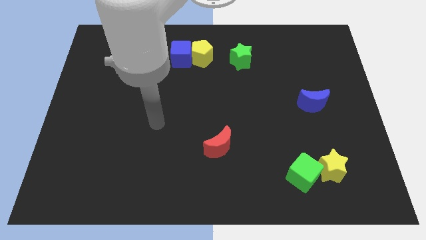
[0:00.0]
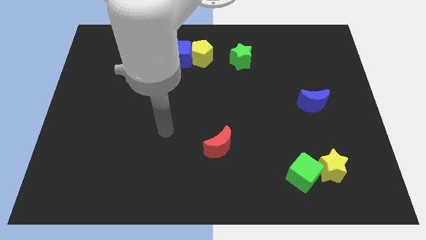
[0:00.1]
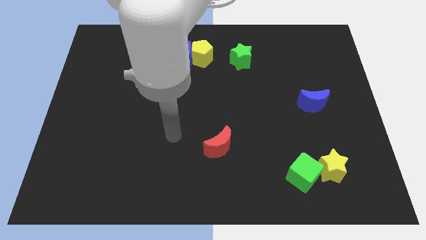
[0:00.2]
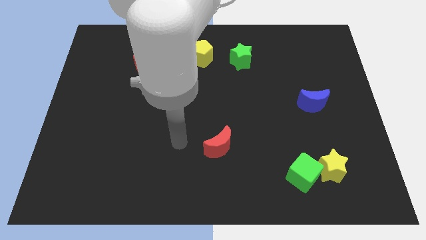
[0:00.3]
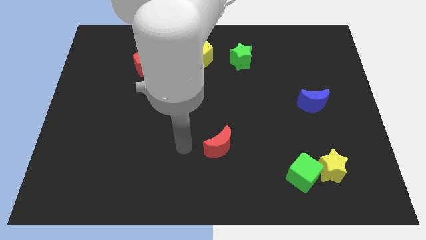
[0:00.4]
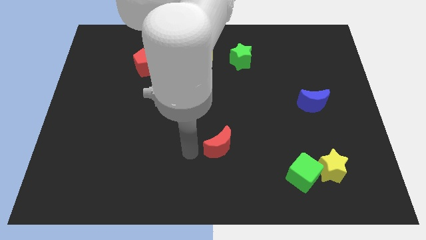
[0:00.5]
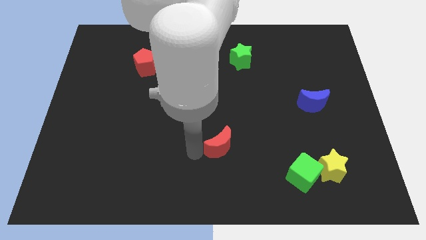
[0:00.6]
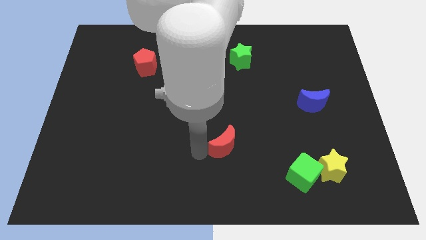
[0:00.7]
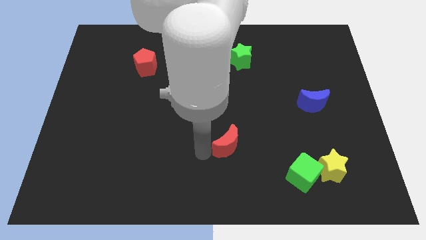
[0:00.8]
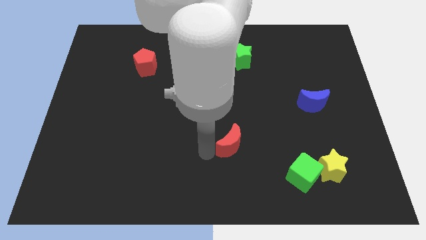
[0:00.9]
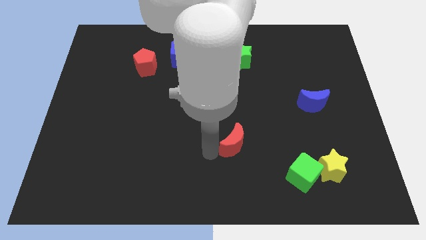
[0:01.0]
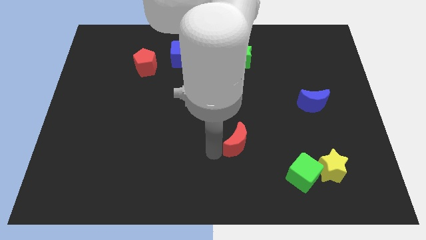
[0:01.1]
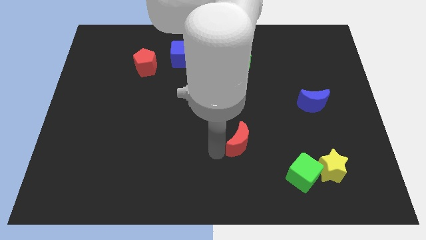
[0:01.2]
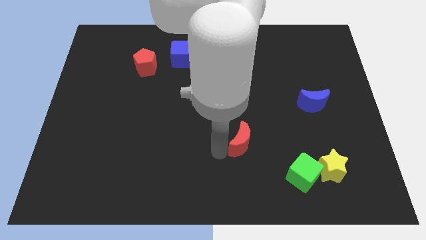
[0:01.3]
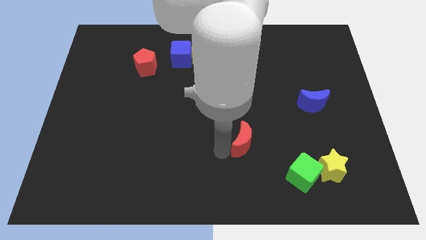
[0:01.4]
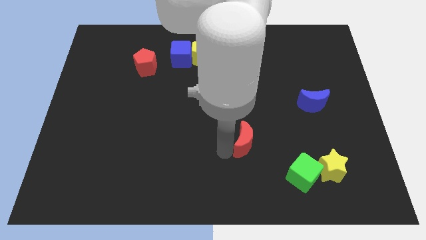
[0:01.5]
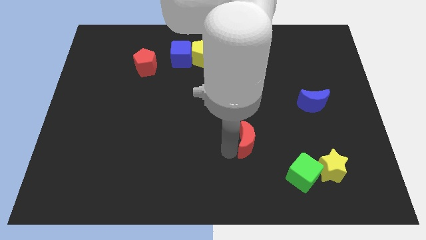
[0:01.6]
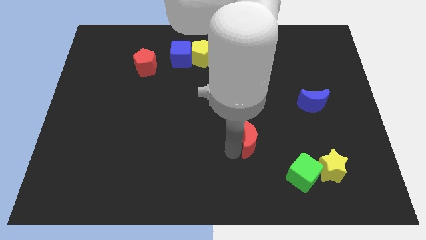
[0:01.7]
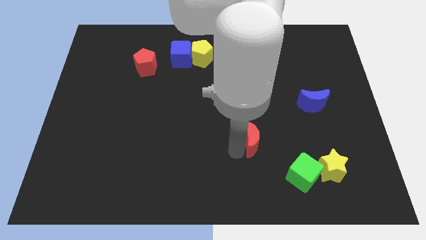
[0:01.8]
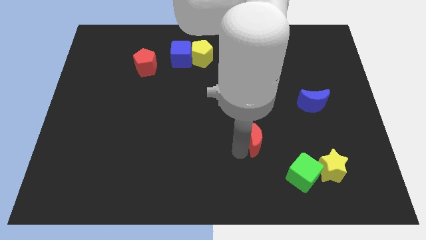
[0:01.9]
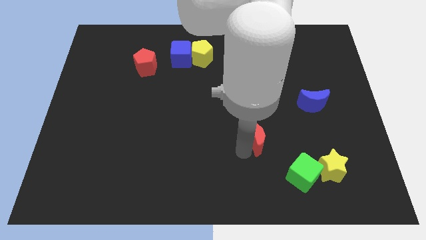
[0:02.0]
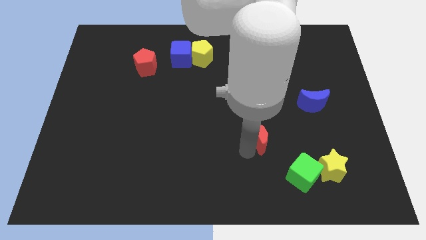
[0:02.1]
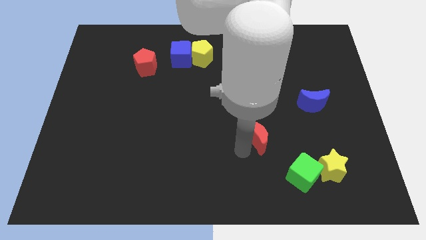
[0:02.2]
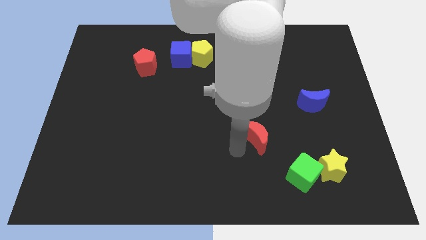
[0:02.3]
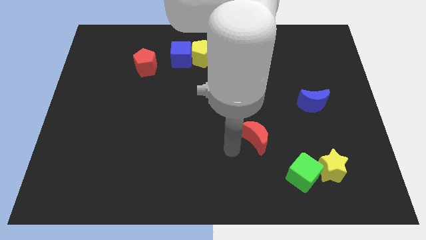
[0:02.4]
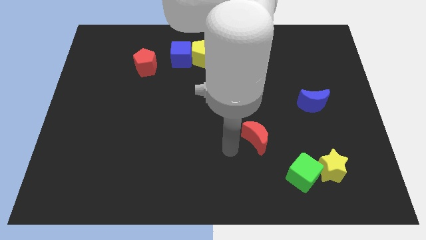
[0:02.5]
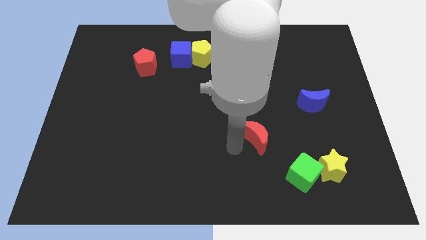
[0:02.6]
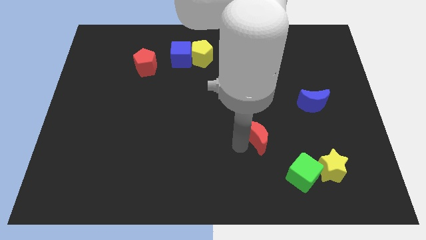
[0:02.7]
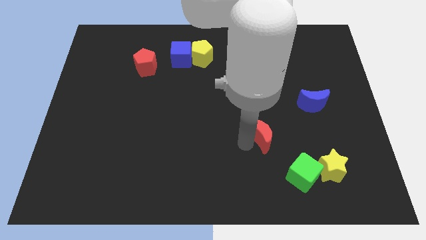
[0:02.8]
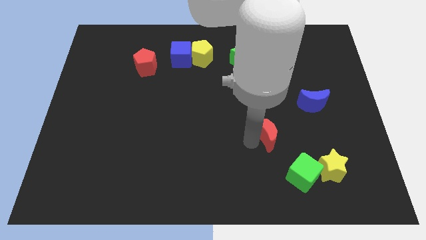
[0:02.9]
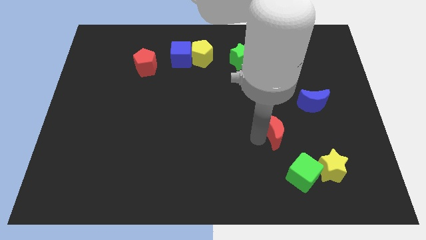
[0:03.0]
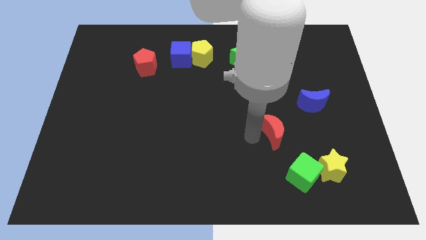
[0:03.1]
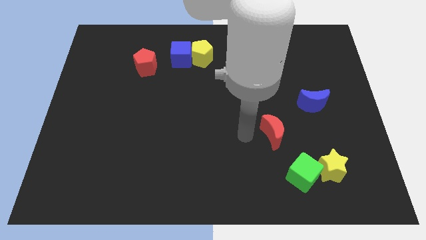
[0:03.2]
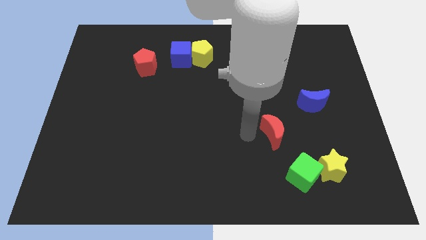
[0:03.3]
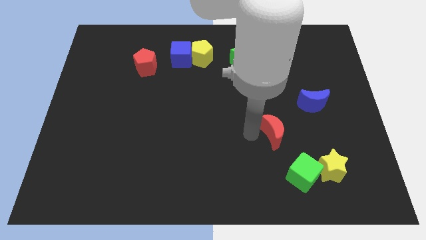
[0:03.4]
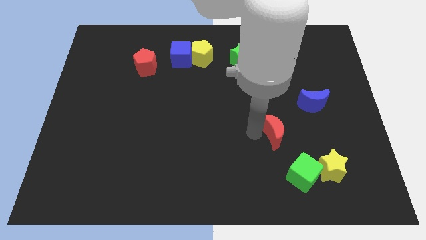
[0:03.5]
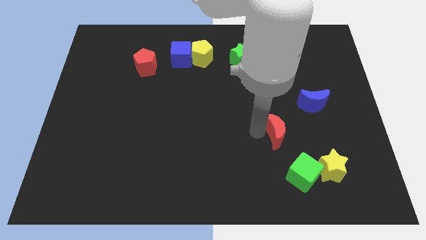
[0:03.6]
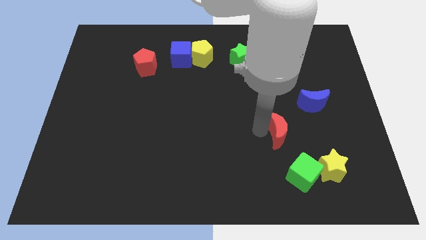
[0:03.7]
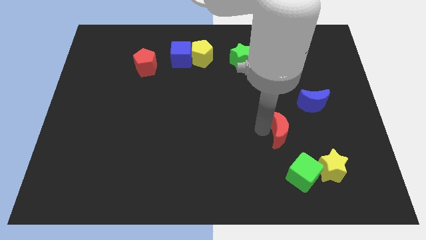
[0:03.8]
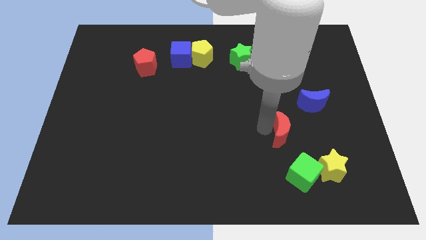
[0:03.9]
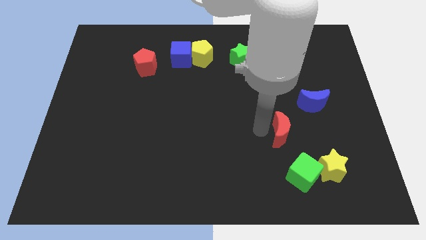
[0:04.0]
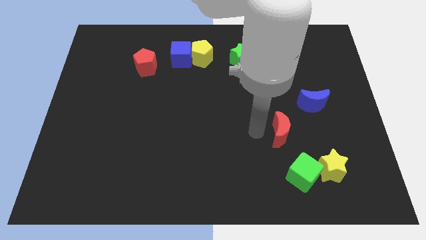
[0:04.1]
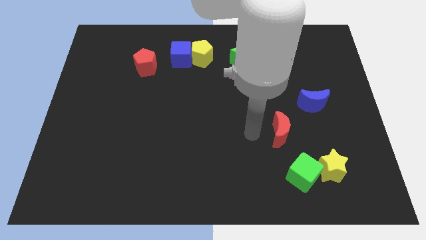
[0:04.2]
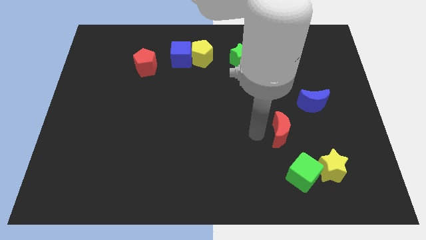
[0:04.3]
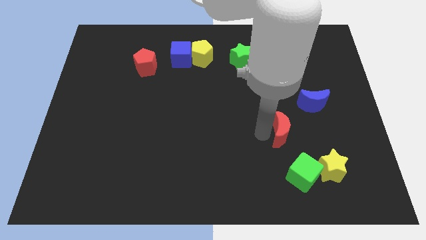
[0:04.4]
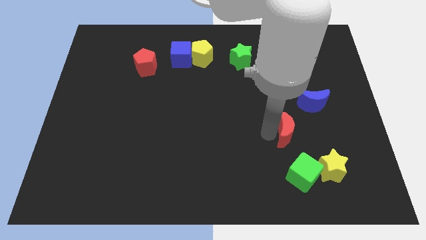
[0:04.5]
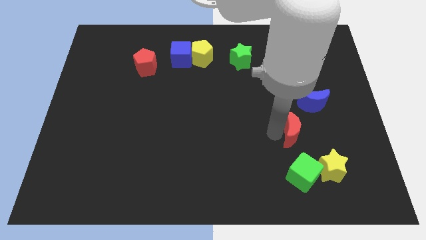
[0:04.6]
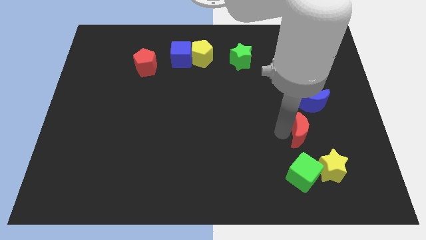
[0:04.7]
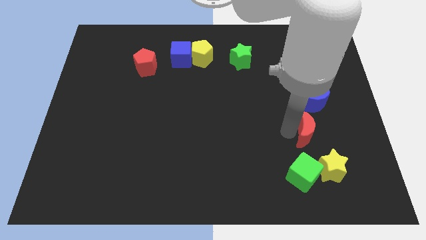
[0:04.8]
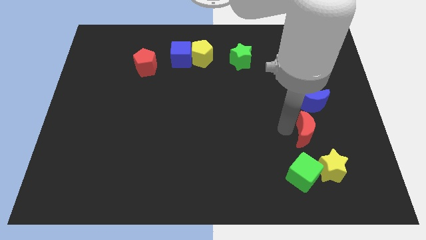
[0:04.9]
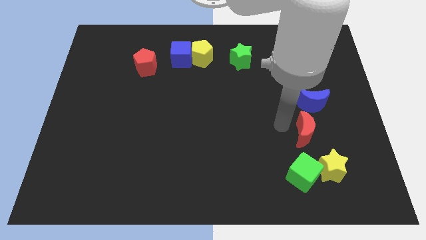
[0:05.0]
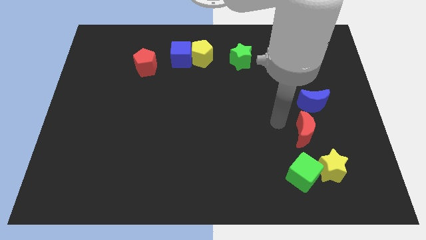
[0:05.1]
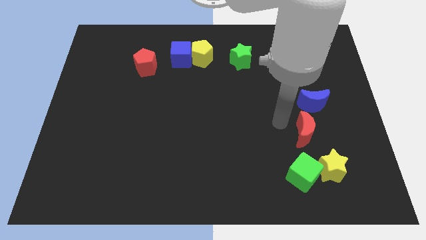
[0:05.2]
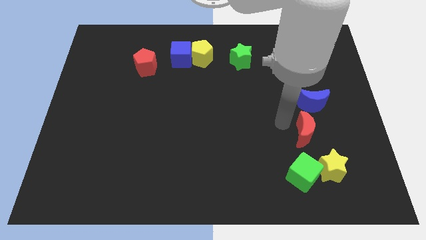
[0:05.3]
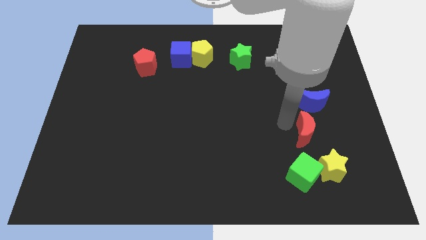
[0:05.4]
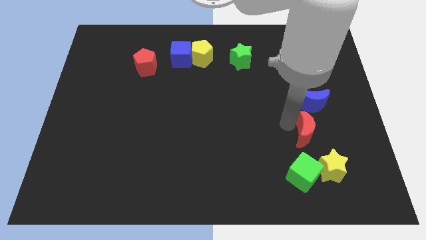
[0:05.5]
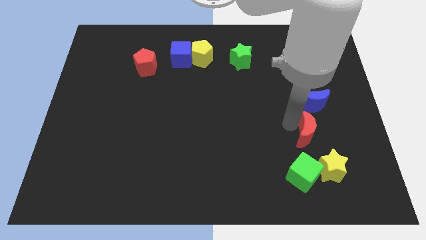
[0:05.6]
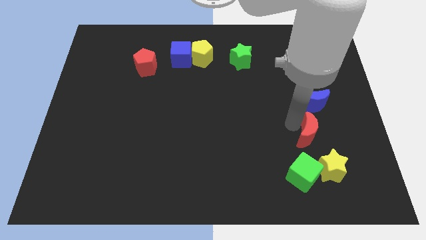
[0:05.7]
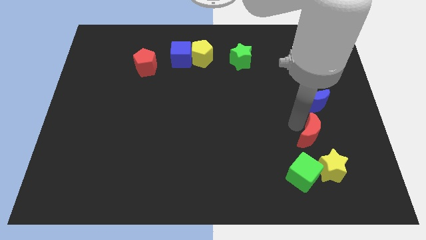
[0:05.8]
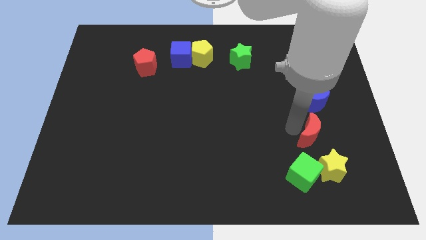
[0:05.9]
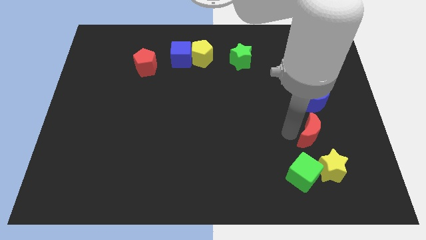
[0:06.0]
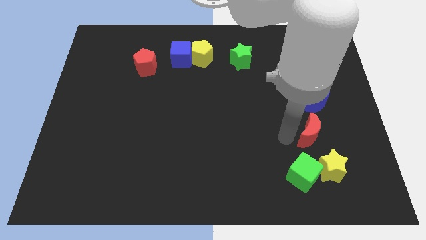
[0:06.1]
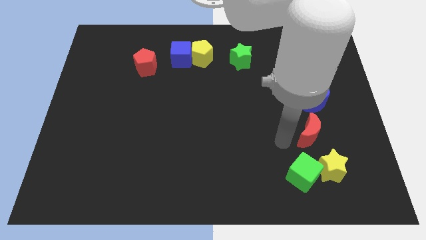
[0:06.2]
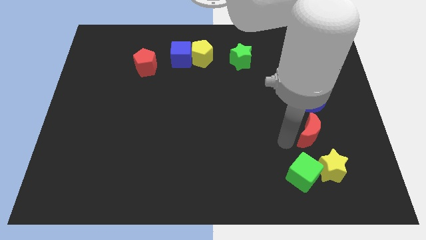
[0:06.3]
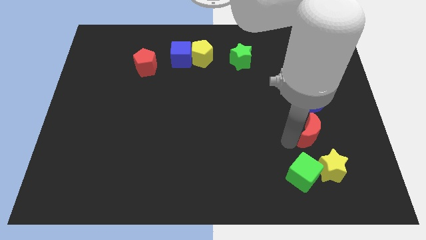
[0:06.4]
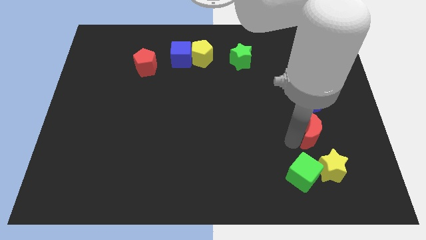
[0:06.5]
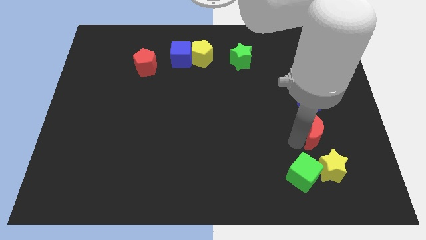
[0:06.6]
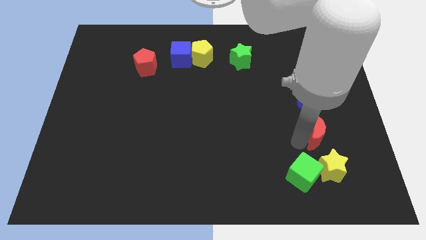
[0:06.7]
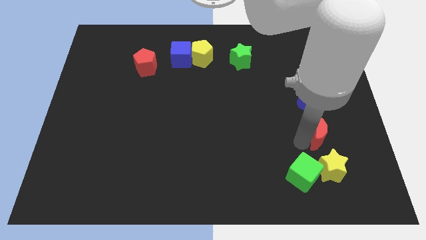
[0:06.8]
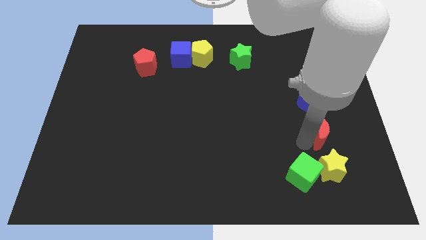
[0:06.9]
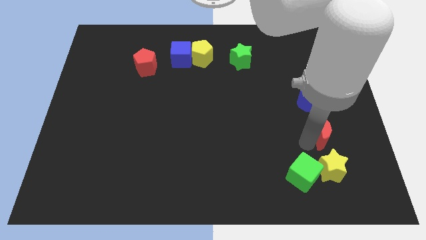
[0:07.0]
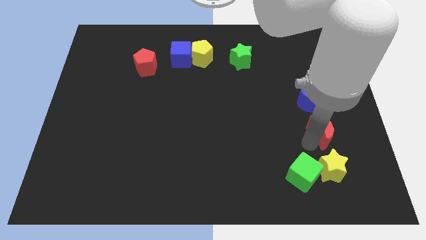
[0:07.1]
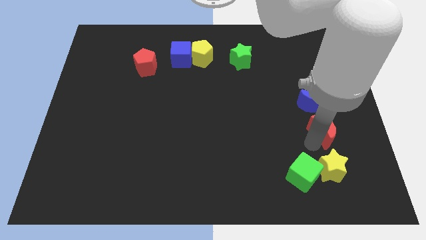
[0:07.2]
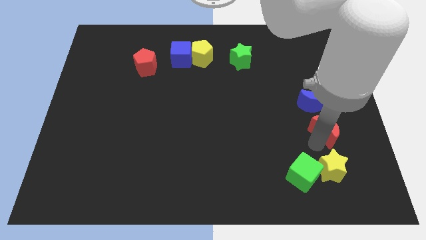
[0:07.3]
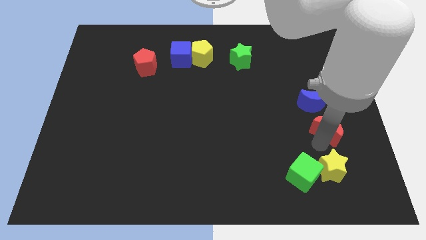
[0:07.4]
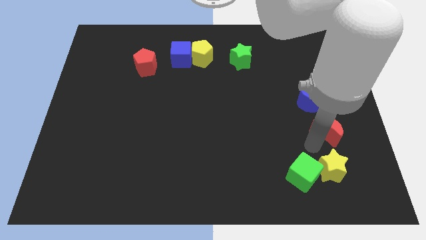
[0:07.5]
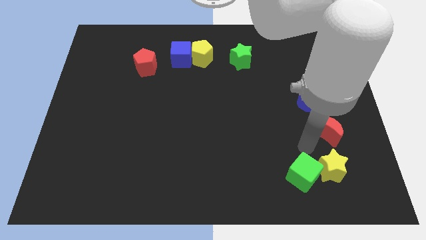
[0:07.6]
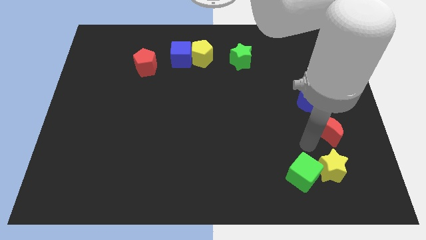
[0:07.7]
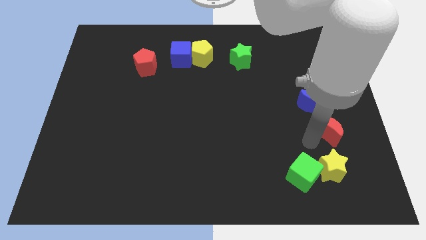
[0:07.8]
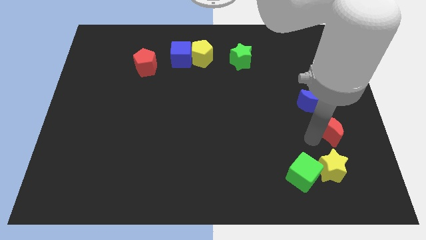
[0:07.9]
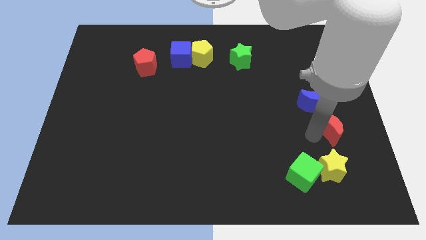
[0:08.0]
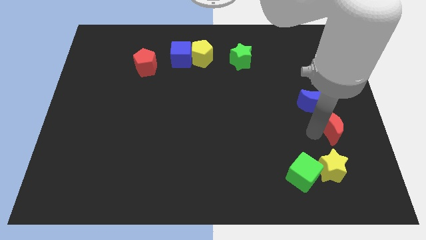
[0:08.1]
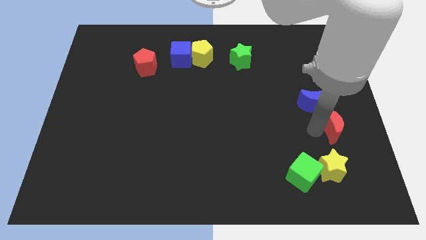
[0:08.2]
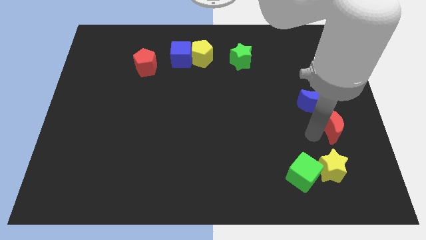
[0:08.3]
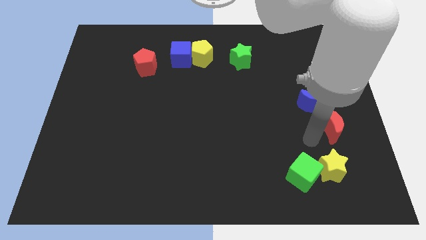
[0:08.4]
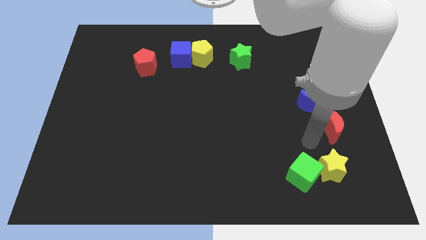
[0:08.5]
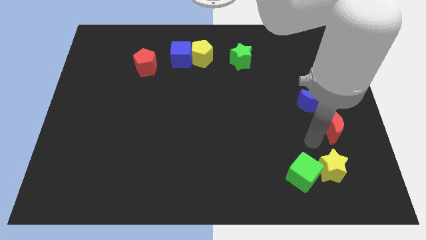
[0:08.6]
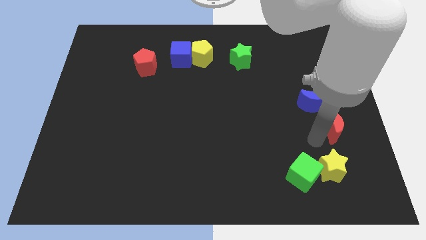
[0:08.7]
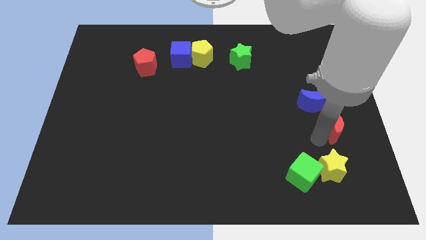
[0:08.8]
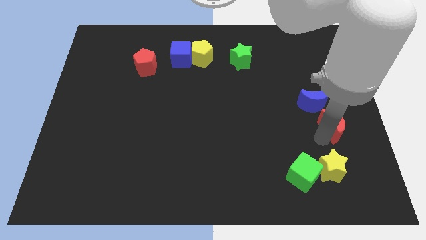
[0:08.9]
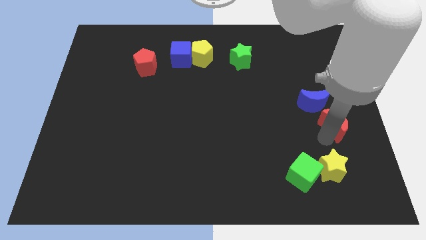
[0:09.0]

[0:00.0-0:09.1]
push the red moon to the center right
